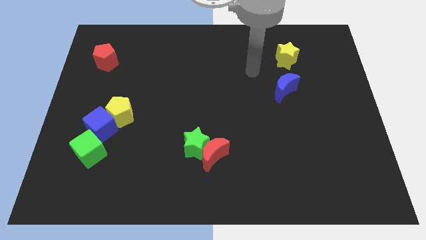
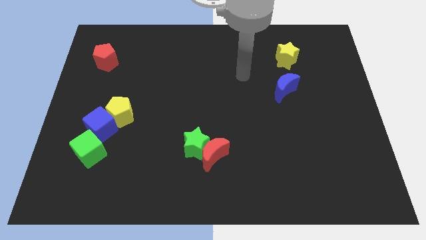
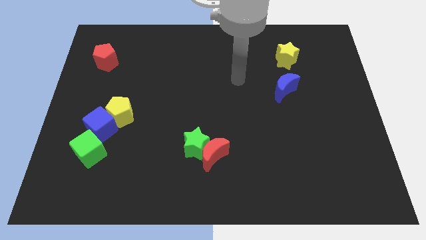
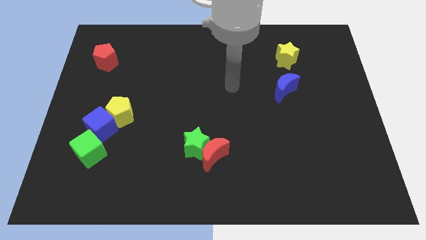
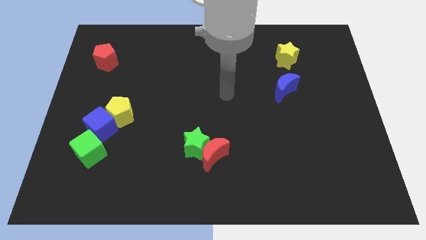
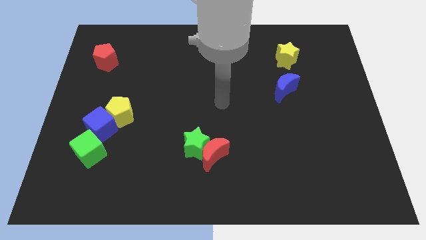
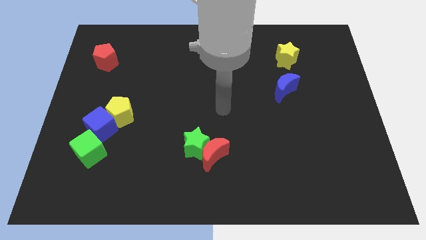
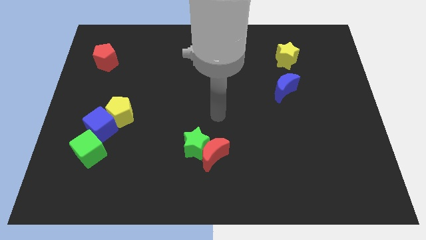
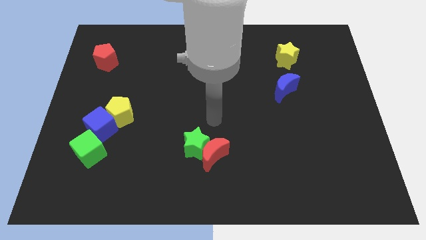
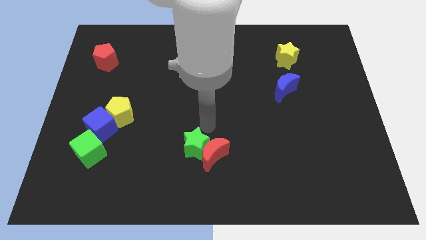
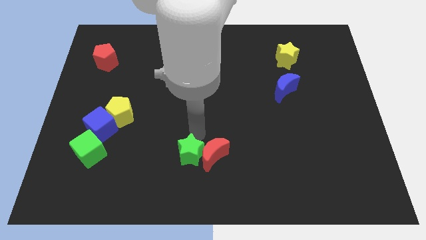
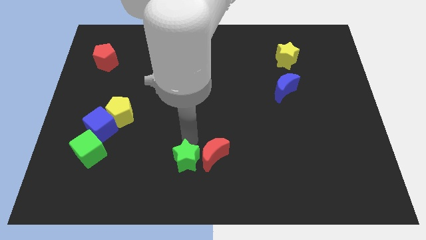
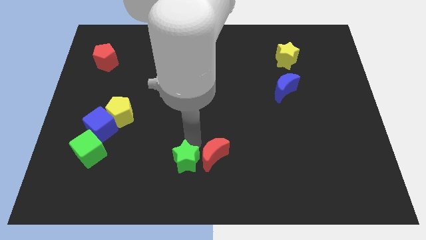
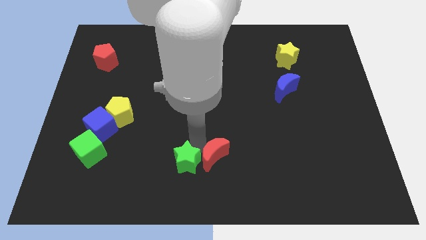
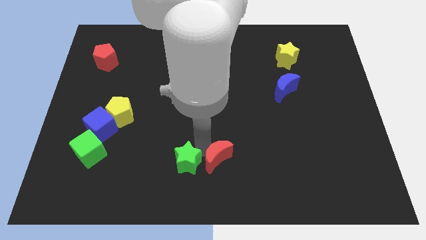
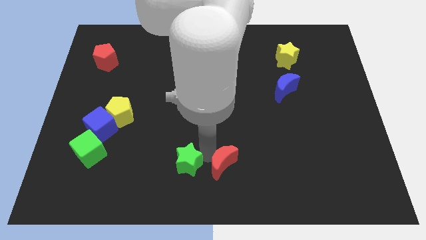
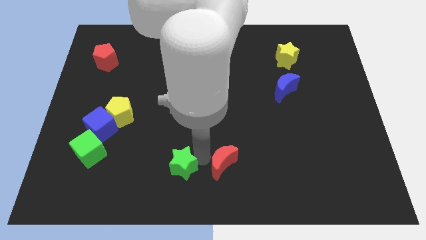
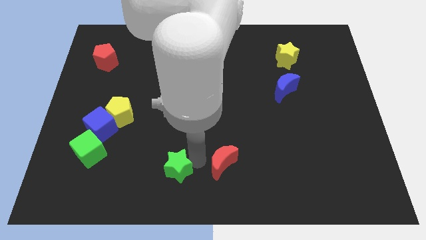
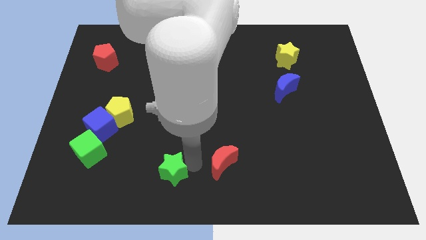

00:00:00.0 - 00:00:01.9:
move the red moon away from the green star

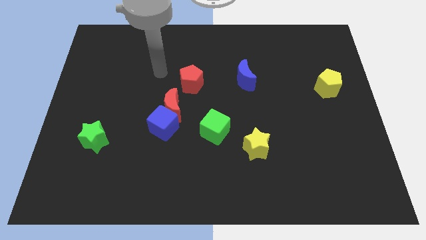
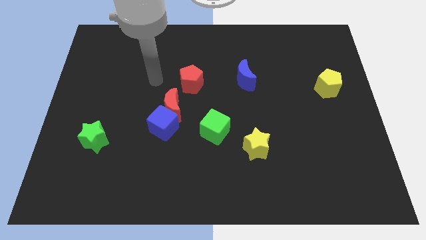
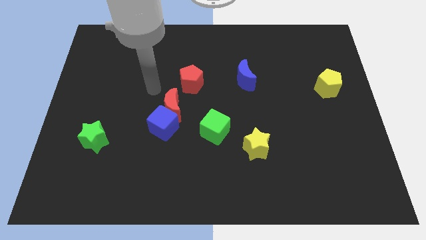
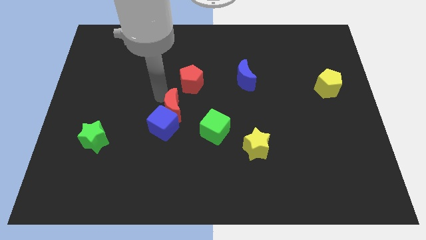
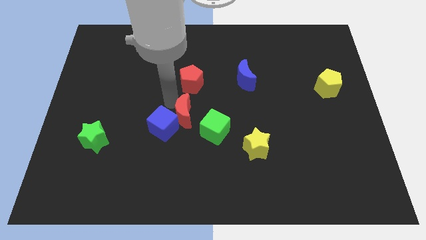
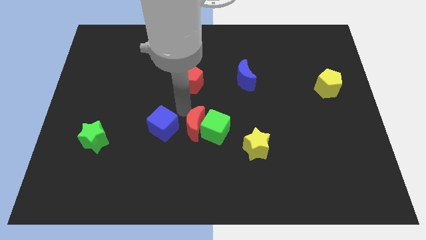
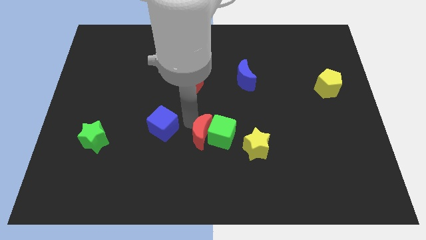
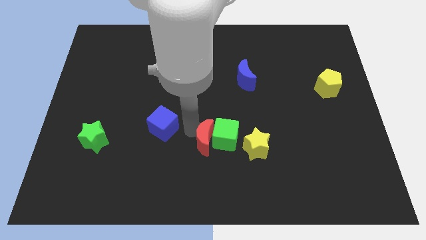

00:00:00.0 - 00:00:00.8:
pull the blue cube apart from the red moon

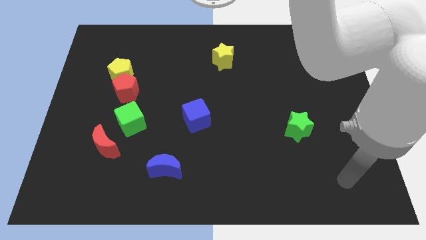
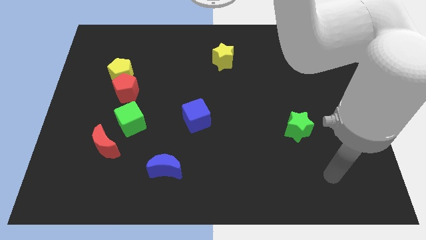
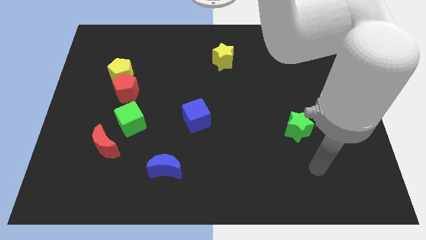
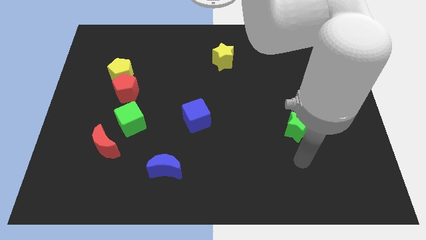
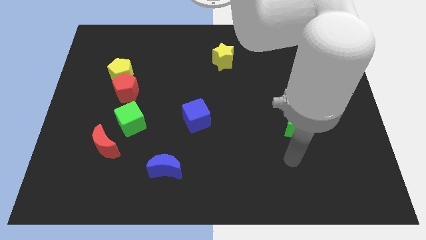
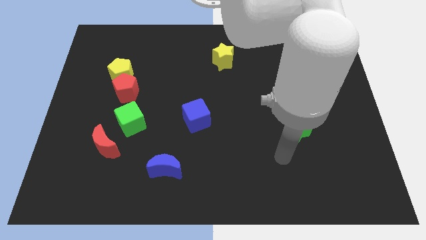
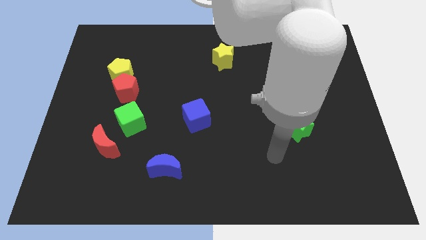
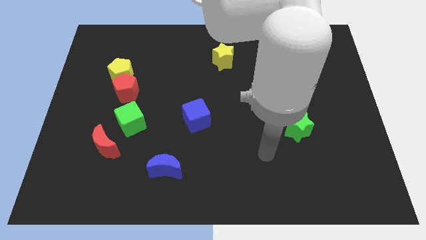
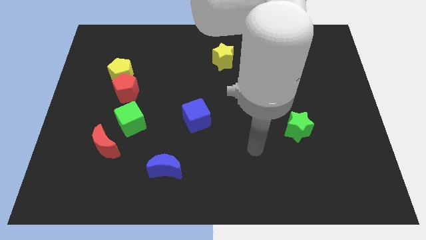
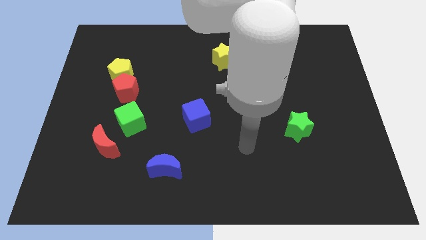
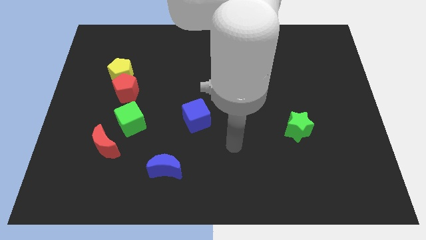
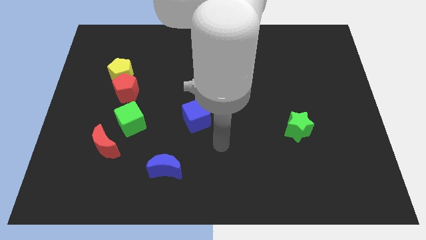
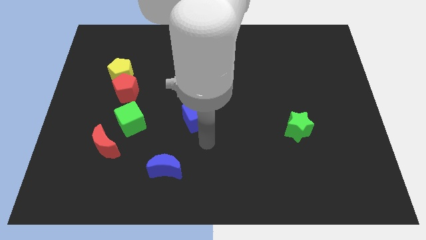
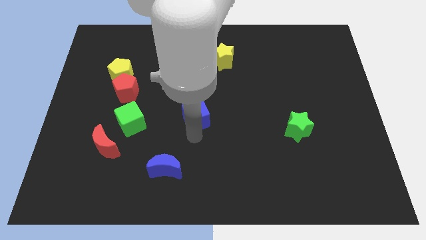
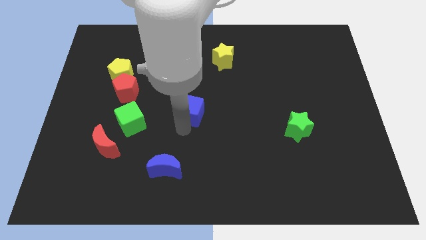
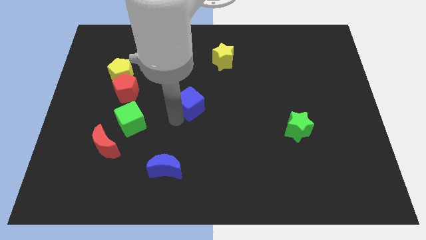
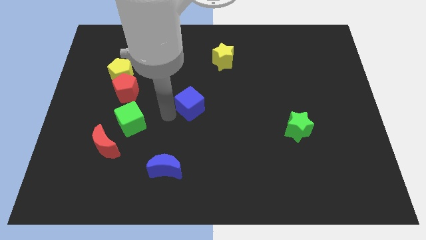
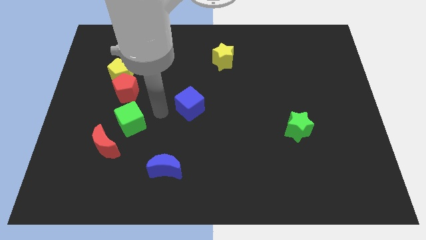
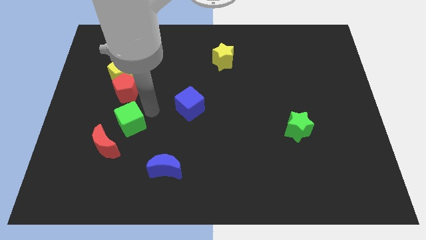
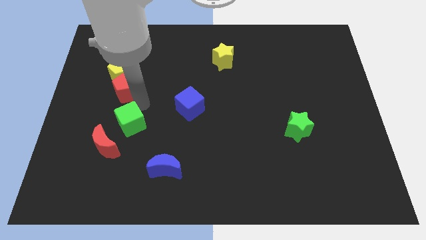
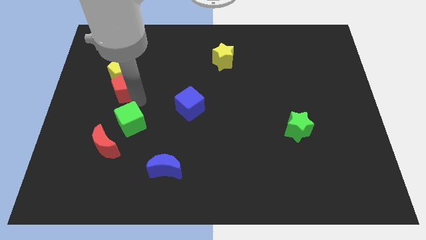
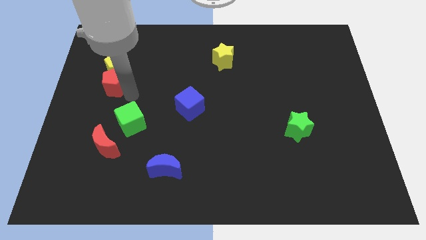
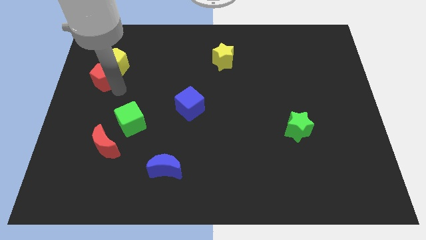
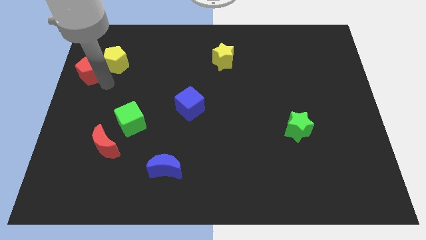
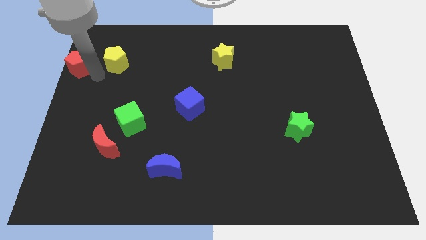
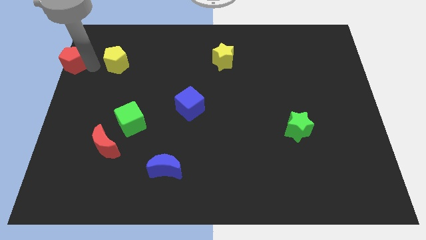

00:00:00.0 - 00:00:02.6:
separate the yellow pentagon from the red pentagon

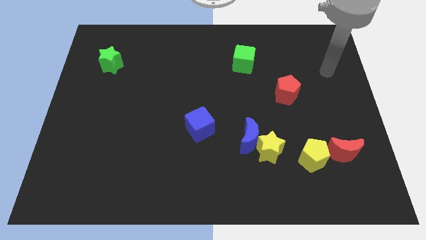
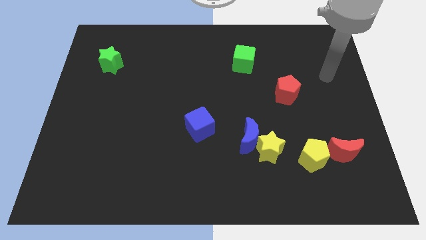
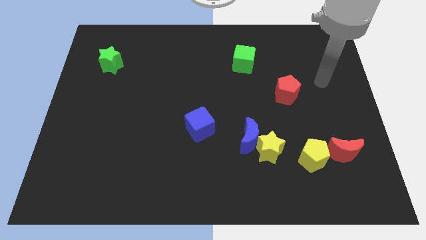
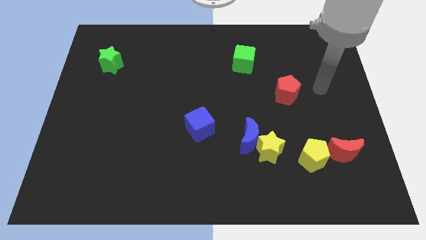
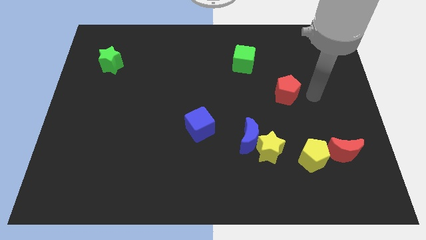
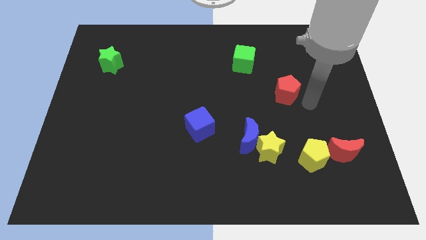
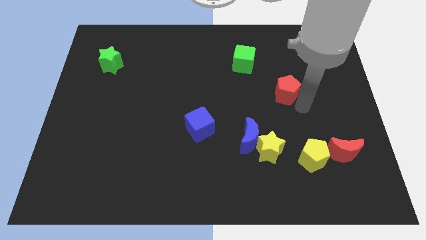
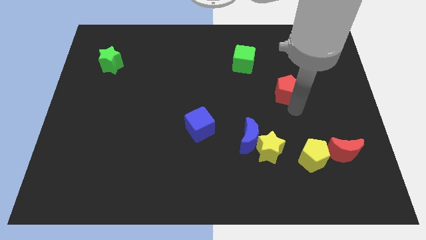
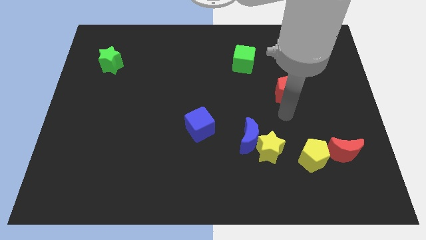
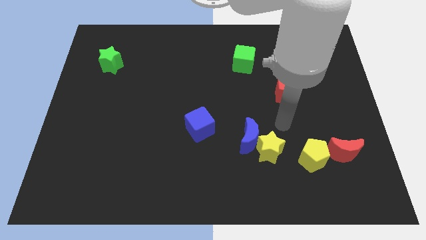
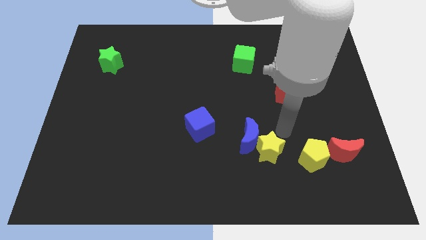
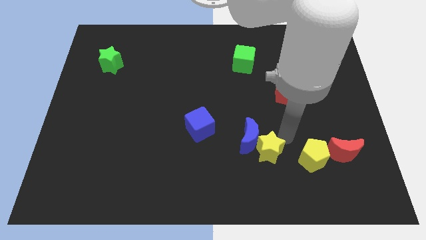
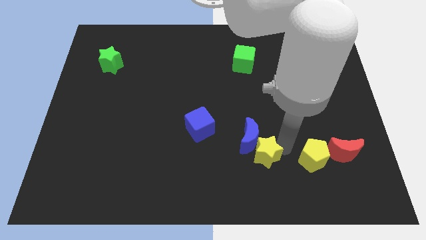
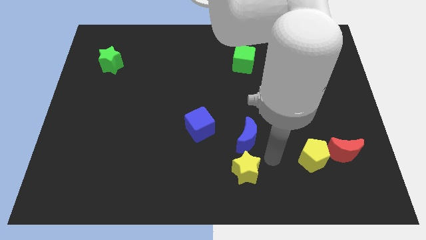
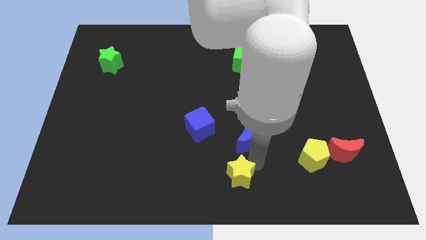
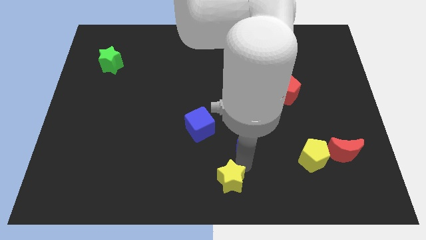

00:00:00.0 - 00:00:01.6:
move the blue moon away from the yellow star

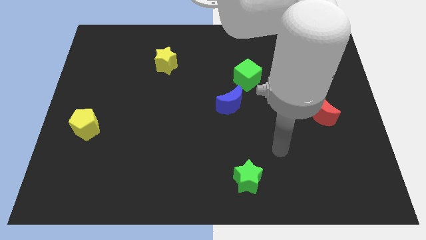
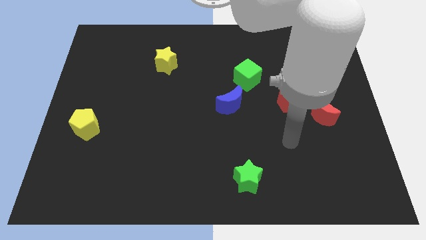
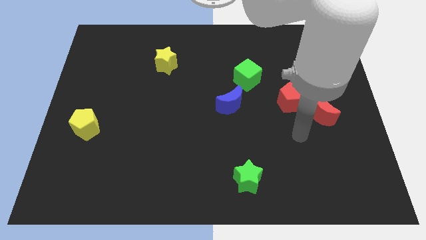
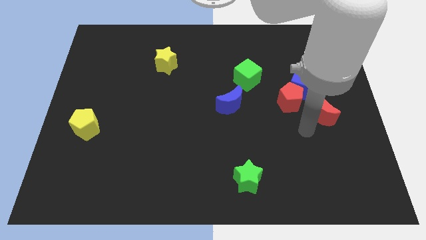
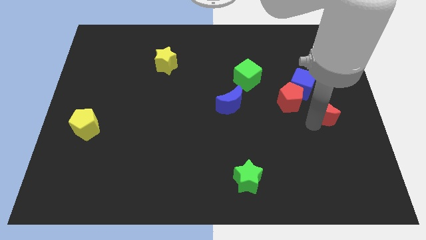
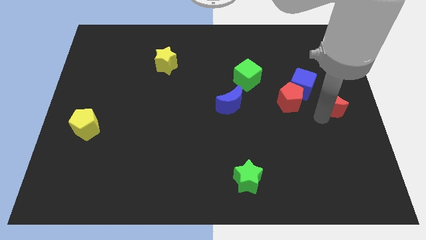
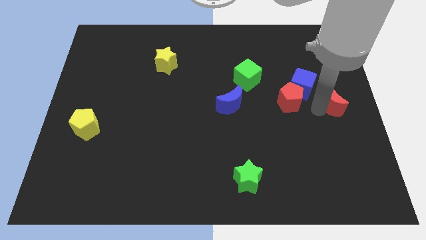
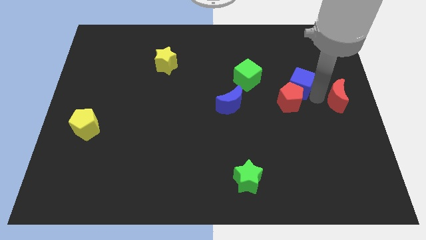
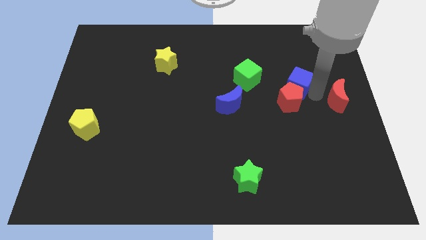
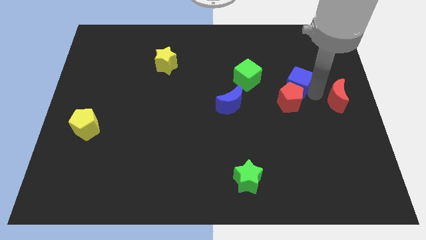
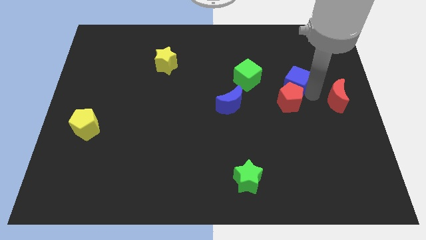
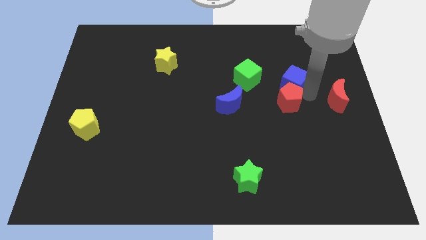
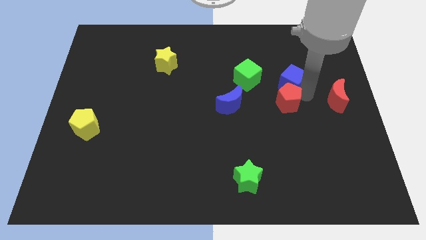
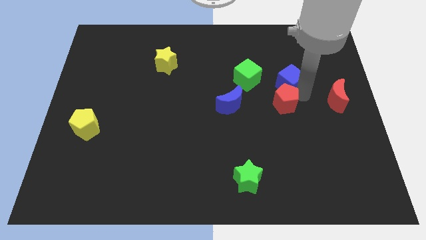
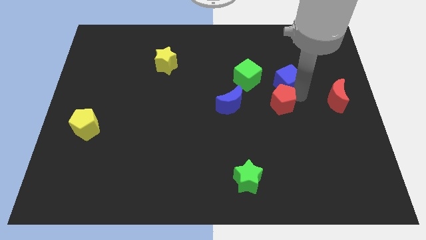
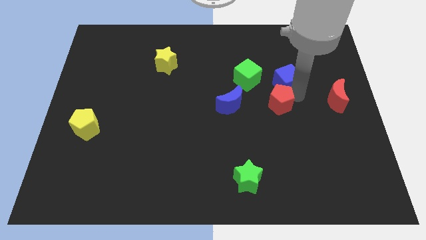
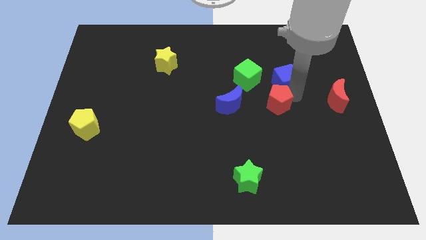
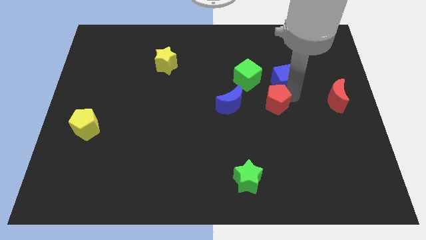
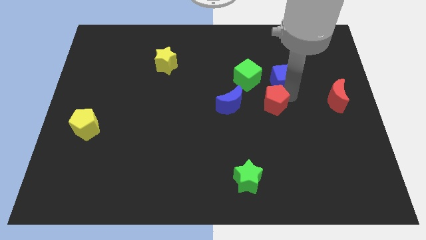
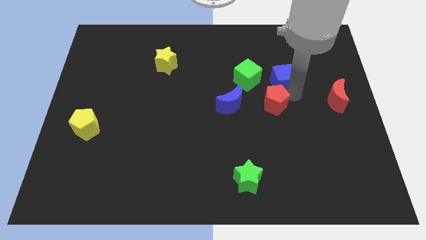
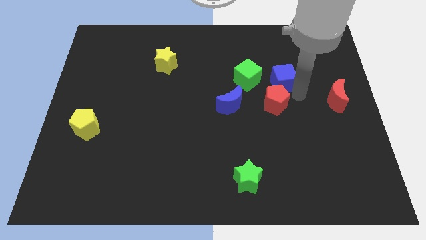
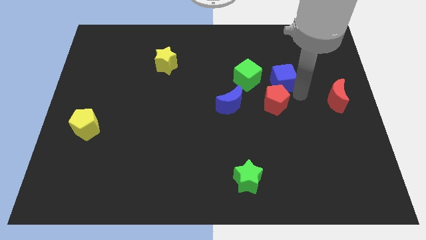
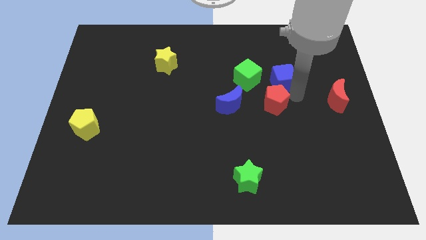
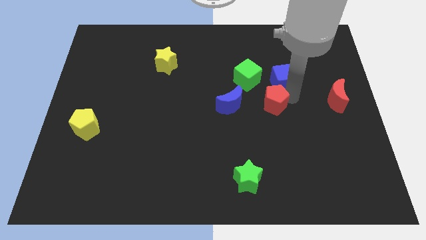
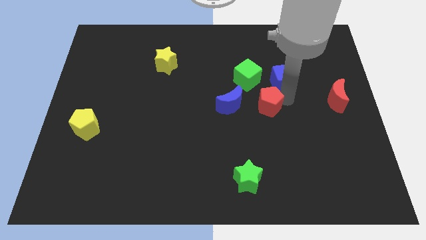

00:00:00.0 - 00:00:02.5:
move the red pentagon away from the blue cube and red moon
